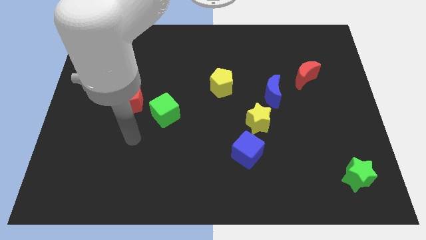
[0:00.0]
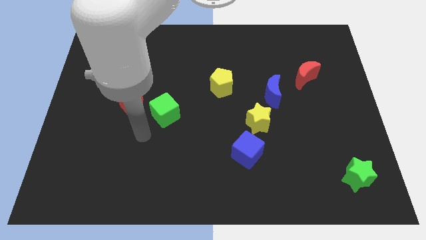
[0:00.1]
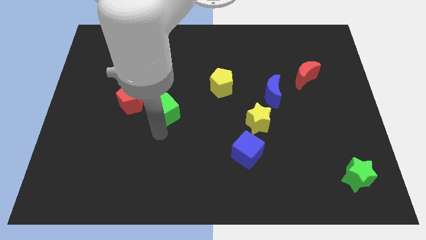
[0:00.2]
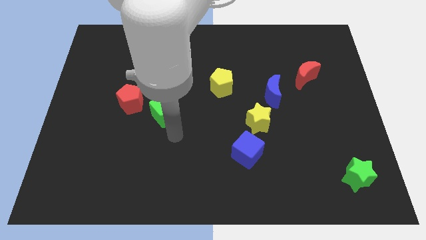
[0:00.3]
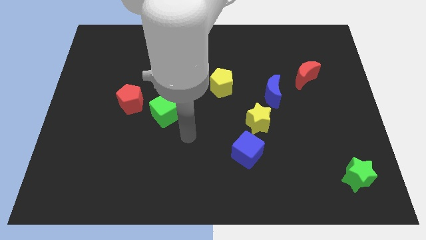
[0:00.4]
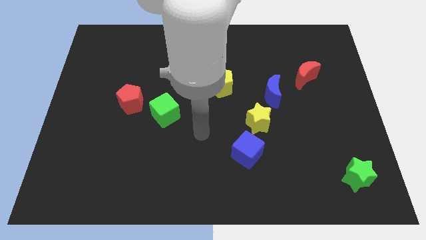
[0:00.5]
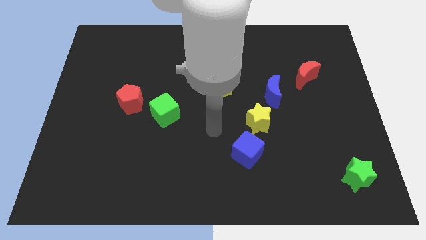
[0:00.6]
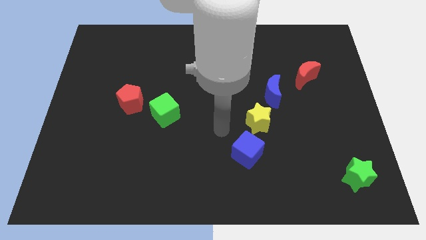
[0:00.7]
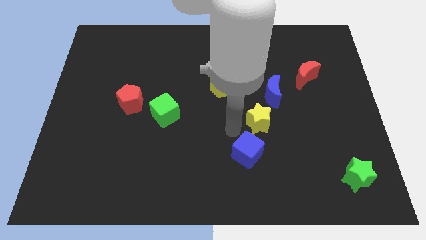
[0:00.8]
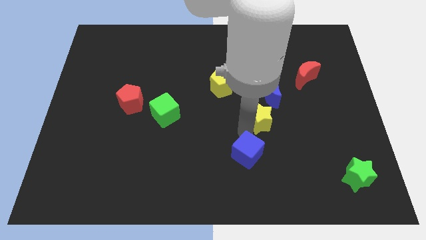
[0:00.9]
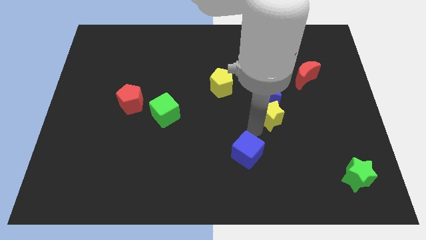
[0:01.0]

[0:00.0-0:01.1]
separate the blue cube from the yellow star

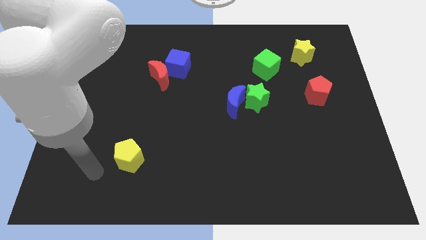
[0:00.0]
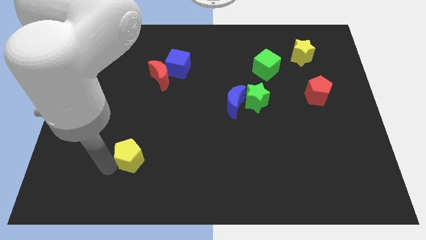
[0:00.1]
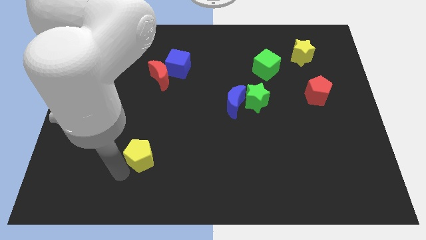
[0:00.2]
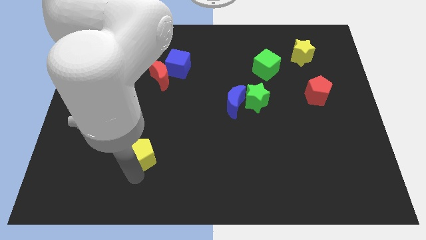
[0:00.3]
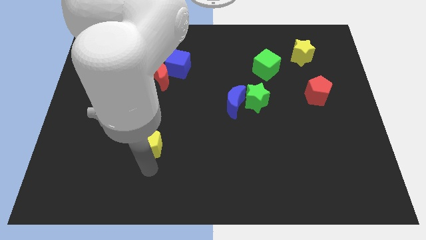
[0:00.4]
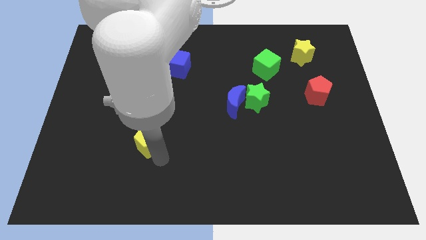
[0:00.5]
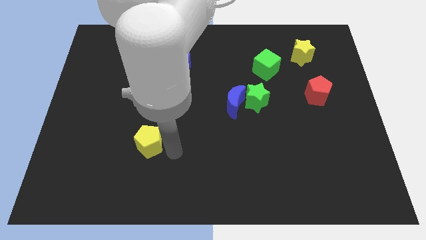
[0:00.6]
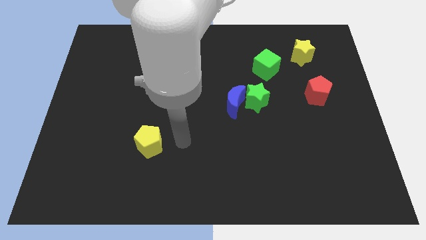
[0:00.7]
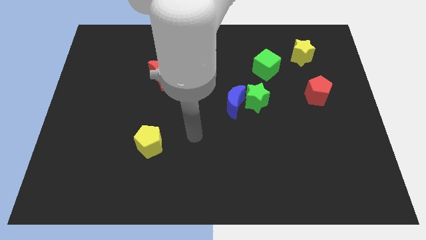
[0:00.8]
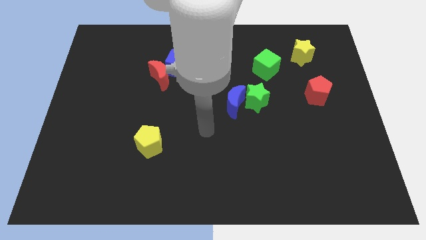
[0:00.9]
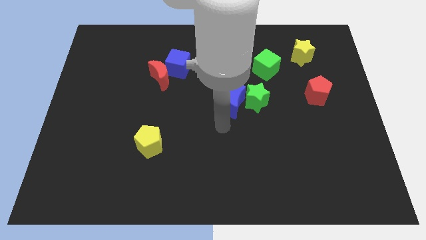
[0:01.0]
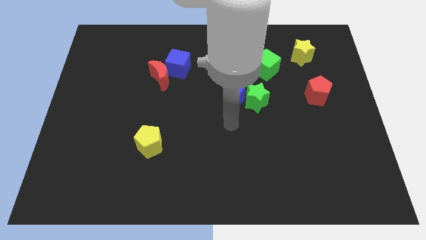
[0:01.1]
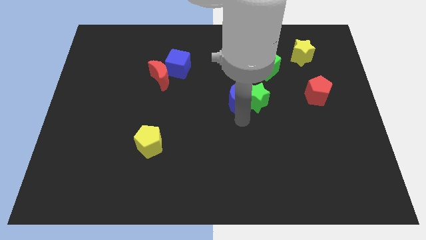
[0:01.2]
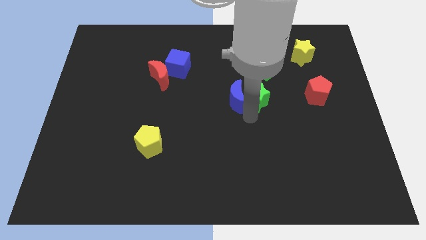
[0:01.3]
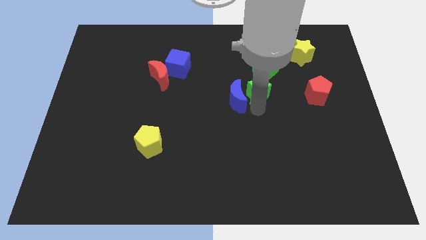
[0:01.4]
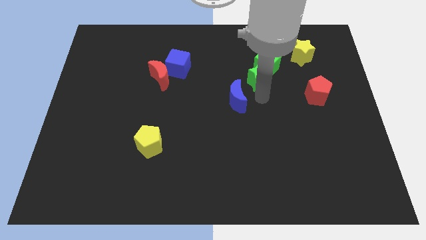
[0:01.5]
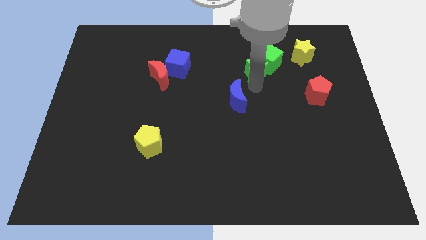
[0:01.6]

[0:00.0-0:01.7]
separate the blue moon from the green star

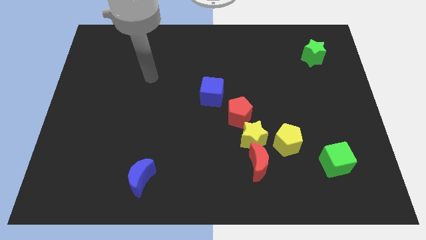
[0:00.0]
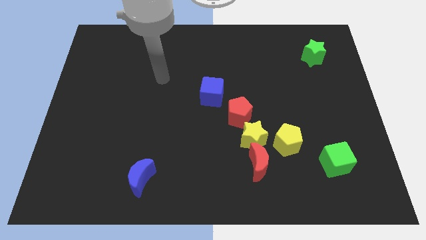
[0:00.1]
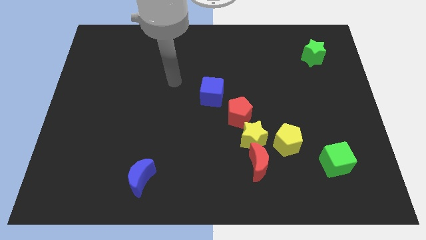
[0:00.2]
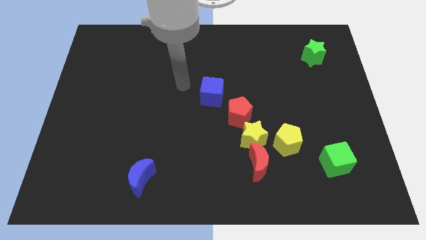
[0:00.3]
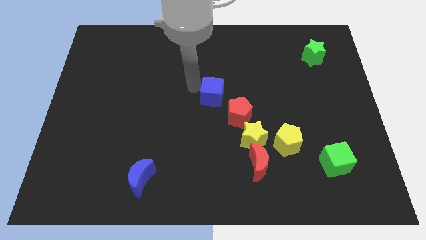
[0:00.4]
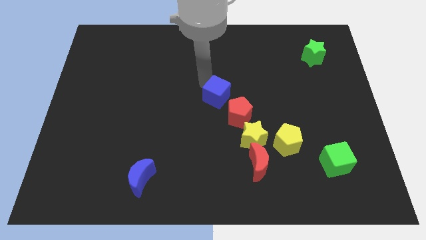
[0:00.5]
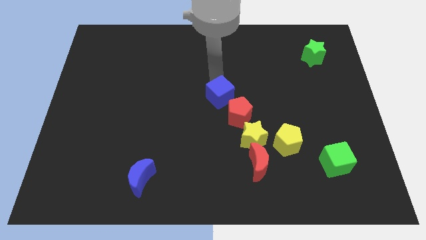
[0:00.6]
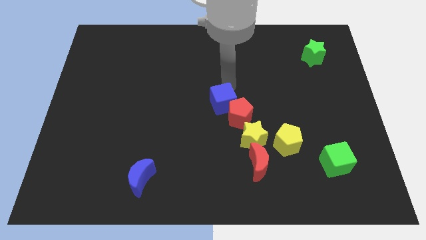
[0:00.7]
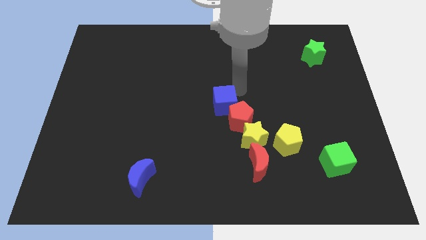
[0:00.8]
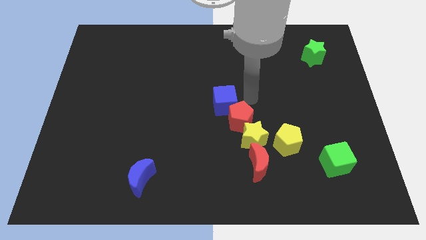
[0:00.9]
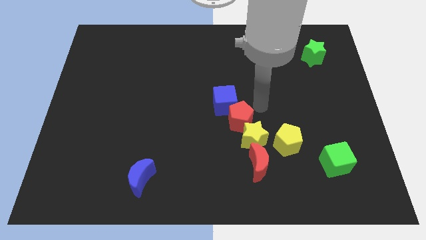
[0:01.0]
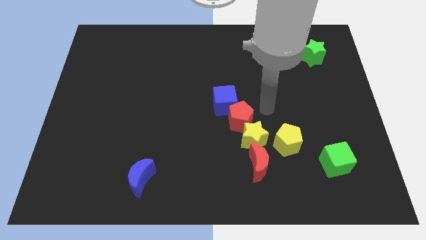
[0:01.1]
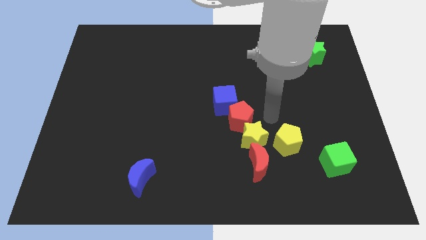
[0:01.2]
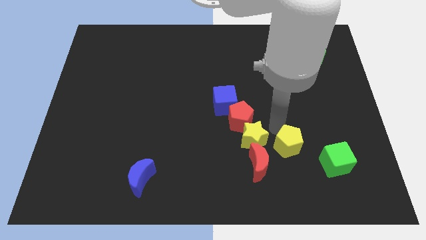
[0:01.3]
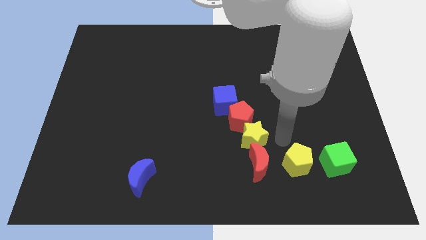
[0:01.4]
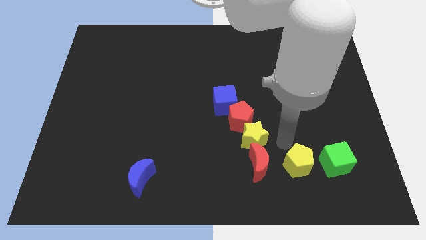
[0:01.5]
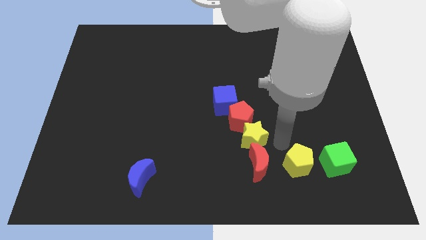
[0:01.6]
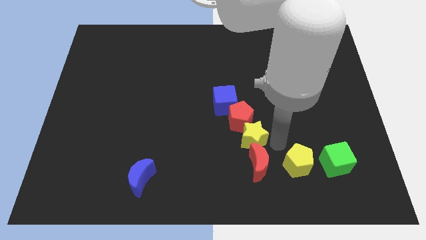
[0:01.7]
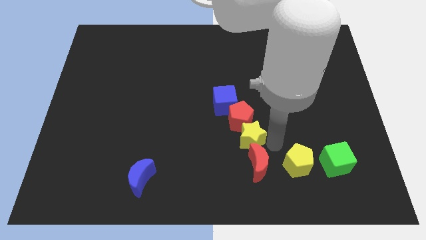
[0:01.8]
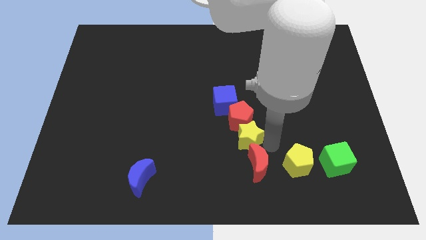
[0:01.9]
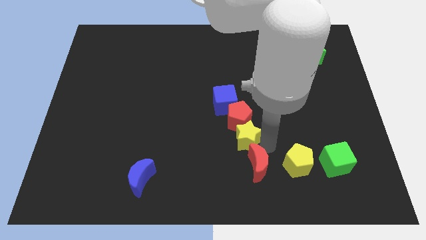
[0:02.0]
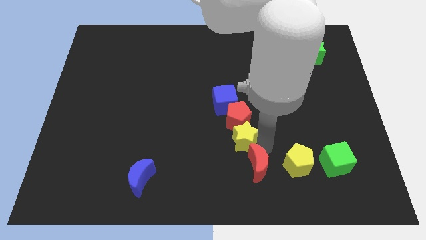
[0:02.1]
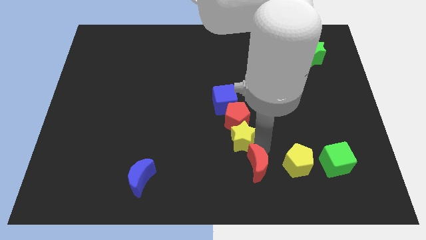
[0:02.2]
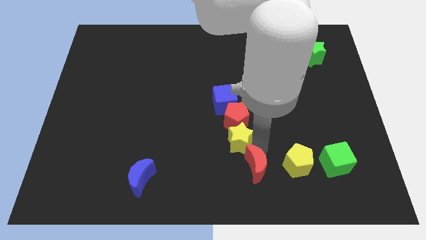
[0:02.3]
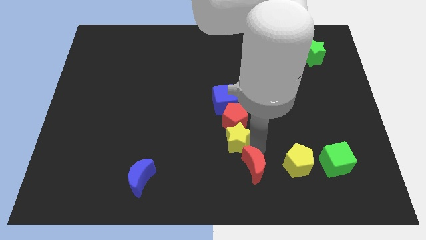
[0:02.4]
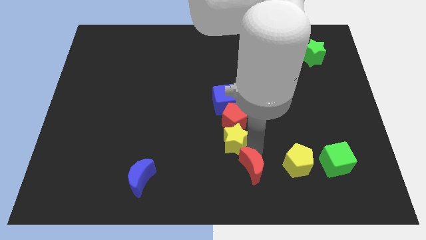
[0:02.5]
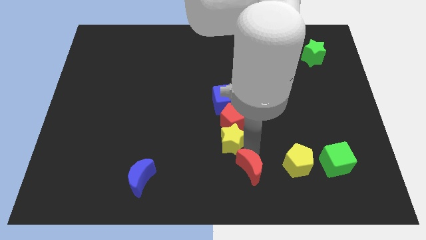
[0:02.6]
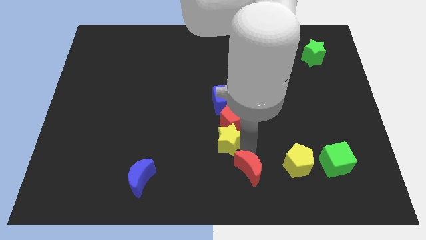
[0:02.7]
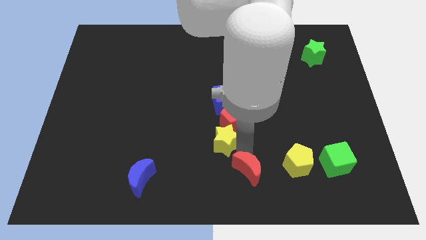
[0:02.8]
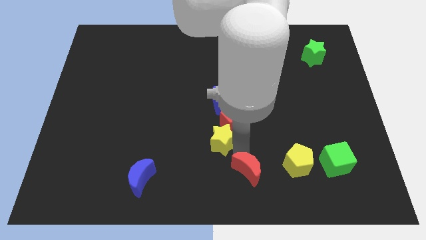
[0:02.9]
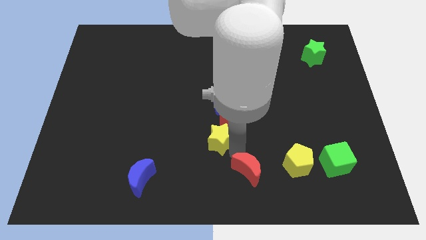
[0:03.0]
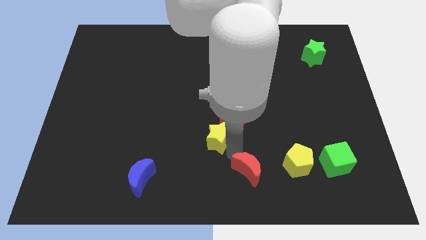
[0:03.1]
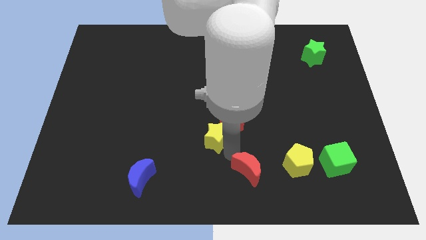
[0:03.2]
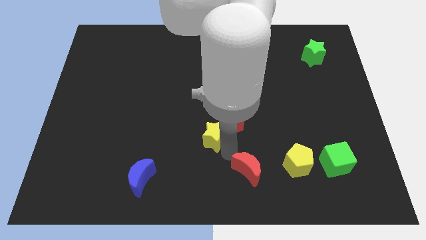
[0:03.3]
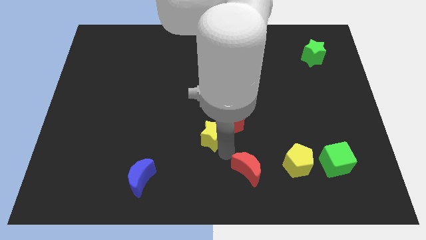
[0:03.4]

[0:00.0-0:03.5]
move the yellow star away from the red moon, yellow pentagon, and red pentagon

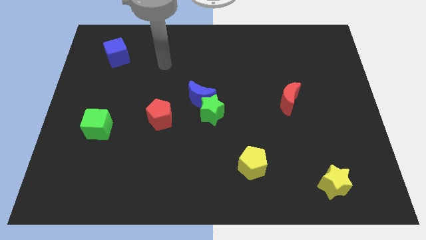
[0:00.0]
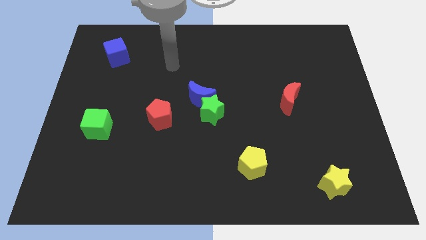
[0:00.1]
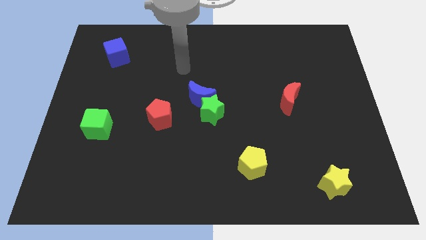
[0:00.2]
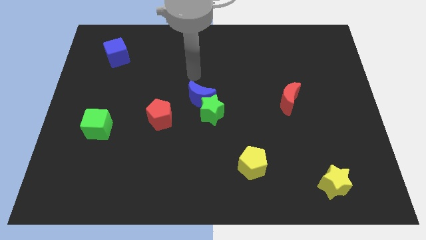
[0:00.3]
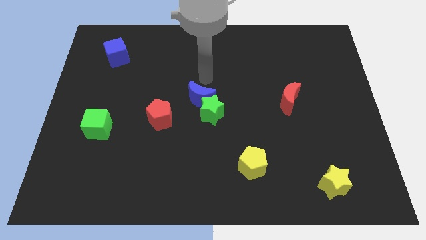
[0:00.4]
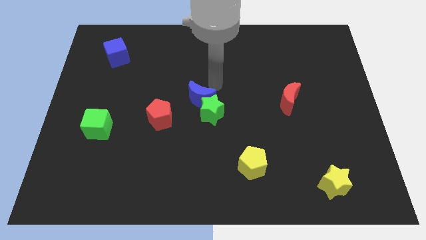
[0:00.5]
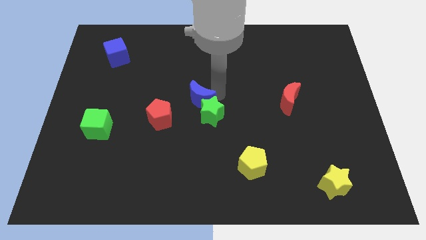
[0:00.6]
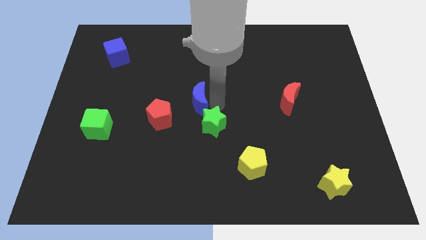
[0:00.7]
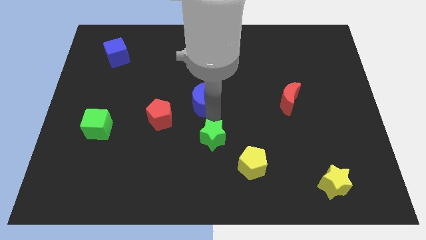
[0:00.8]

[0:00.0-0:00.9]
move the blue moon away from the green star

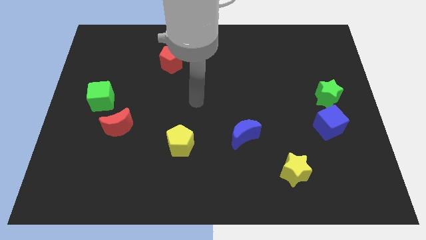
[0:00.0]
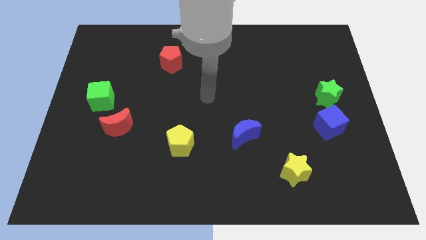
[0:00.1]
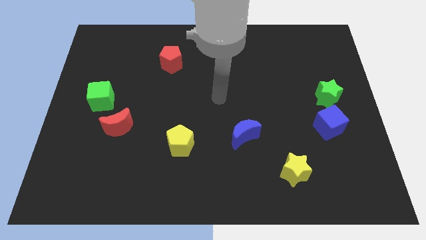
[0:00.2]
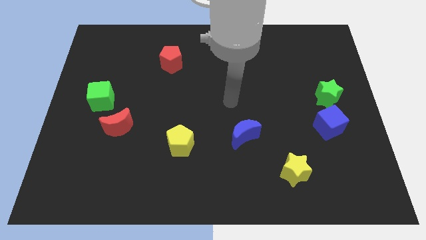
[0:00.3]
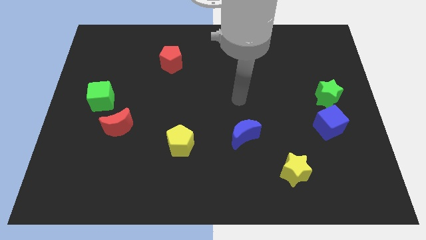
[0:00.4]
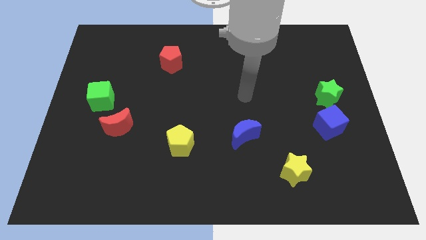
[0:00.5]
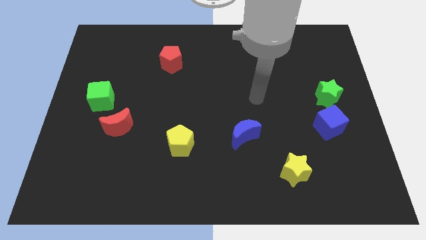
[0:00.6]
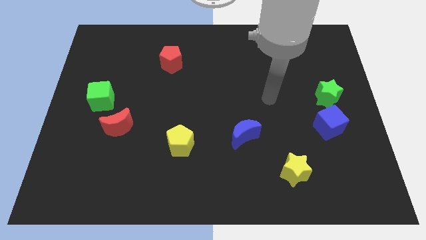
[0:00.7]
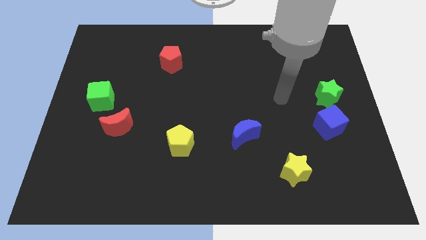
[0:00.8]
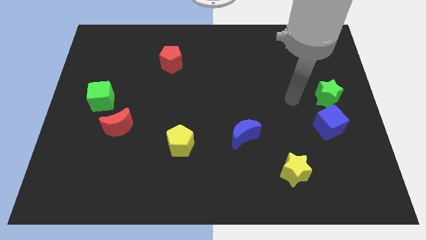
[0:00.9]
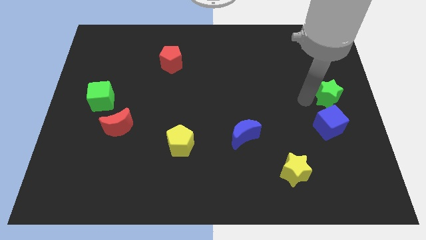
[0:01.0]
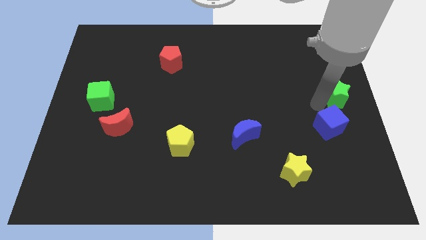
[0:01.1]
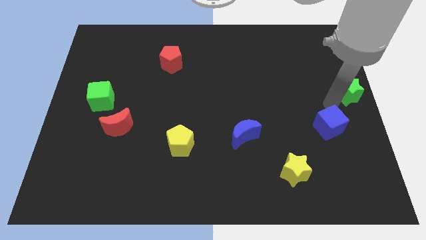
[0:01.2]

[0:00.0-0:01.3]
pull the blue cube apart from the green star

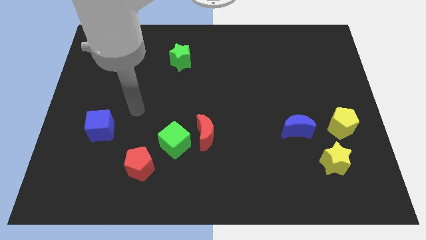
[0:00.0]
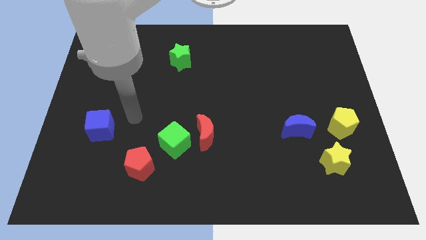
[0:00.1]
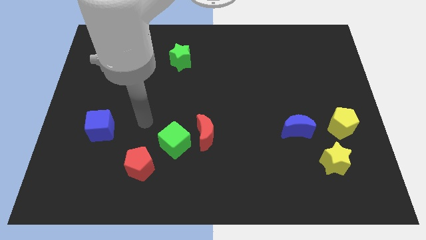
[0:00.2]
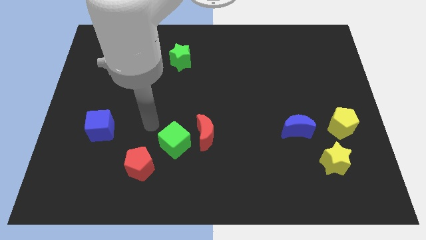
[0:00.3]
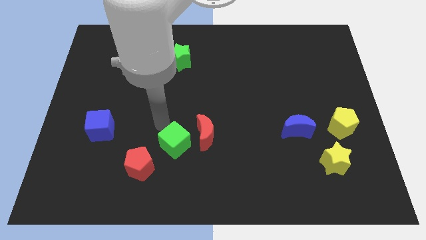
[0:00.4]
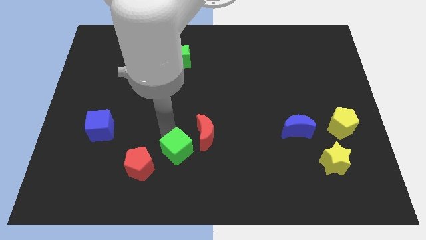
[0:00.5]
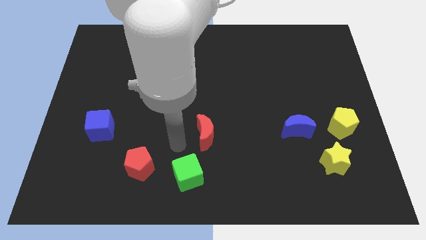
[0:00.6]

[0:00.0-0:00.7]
pull the red moon apart from the green cube
